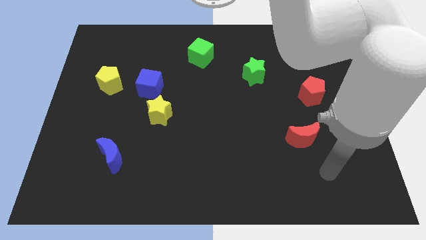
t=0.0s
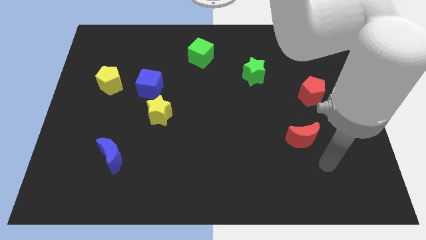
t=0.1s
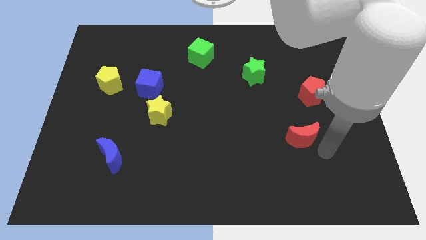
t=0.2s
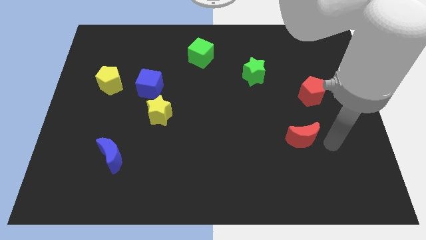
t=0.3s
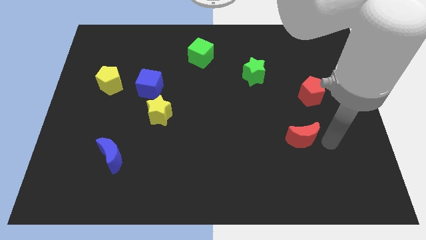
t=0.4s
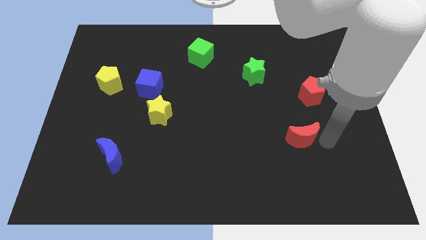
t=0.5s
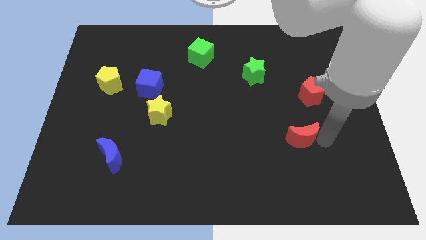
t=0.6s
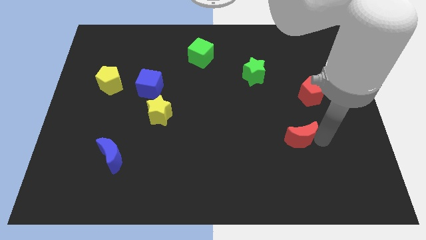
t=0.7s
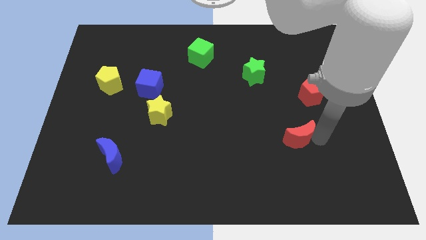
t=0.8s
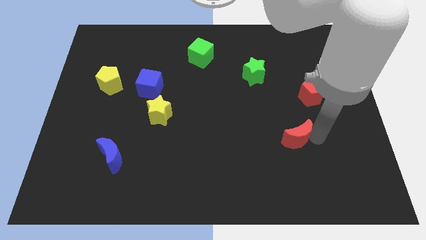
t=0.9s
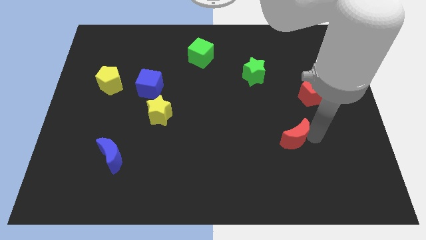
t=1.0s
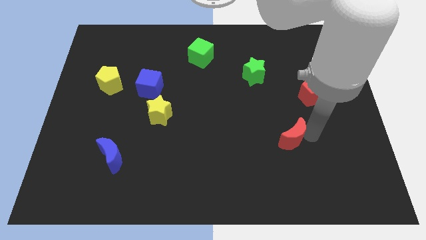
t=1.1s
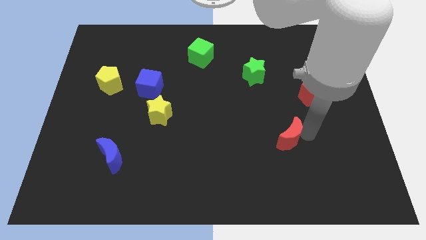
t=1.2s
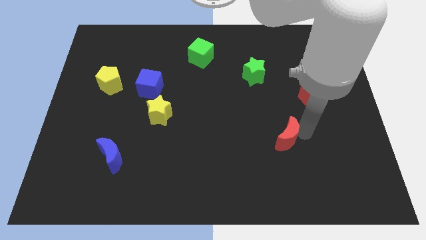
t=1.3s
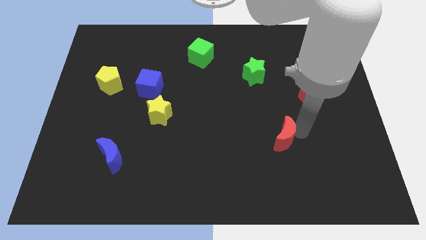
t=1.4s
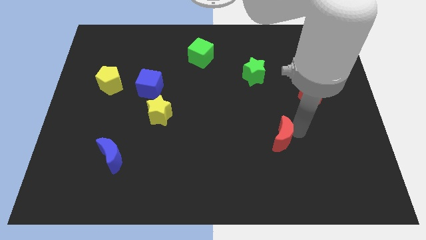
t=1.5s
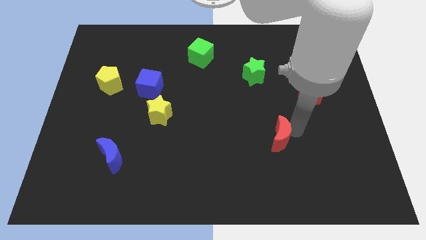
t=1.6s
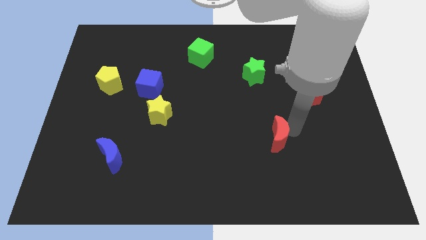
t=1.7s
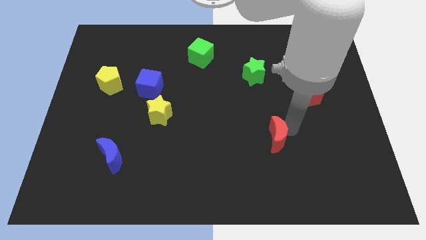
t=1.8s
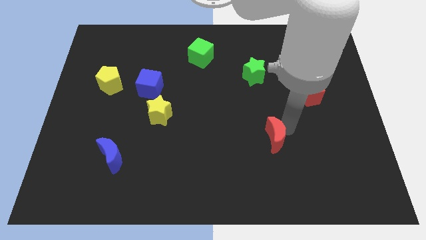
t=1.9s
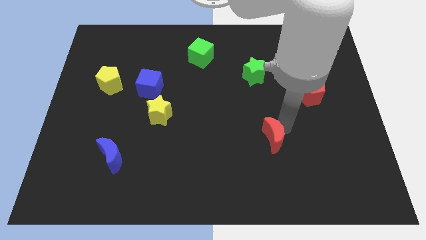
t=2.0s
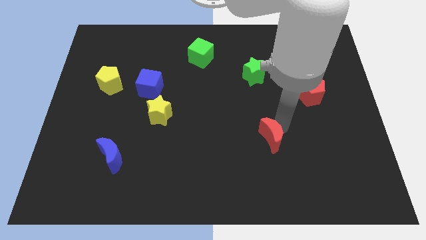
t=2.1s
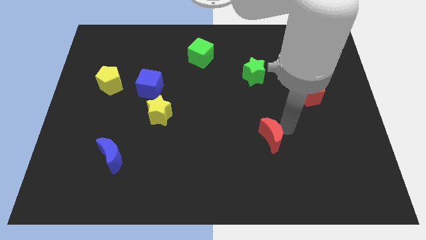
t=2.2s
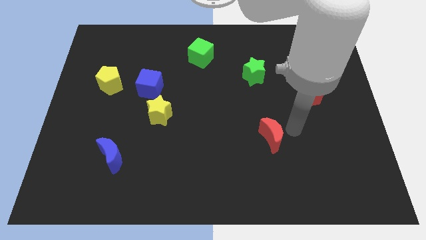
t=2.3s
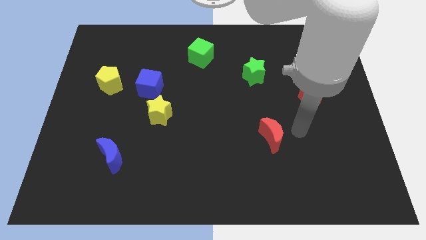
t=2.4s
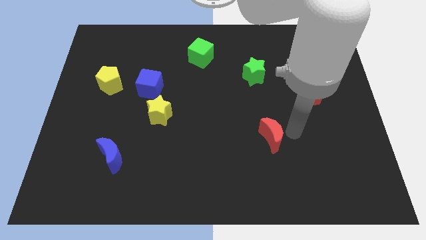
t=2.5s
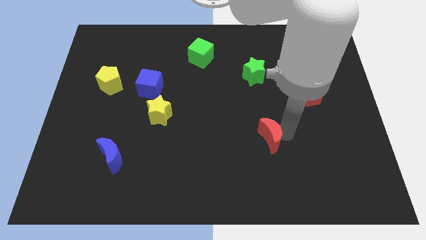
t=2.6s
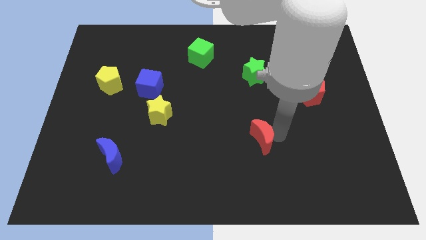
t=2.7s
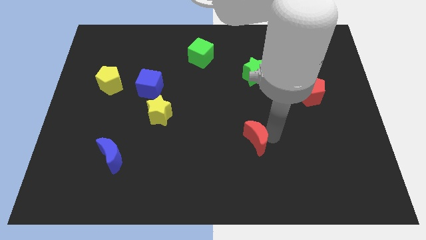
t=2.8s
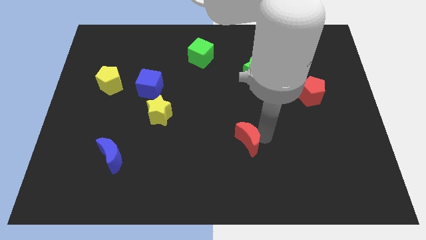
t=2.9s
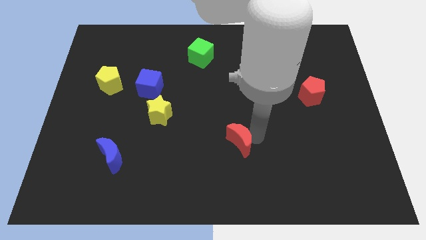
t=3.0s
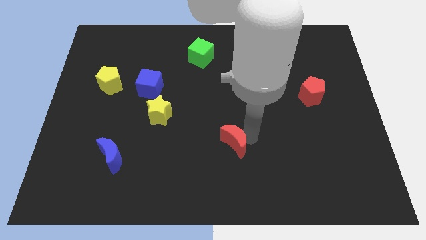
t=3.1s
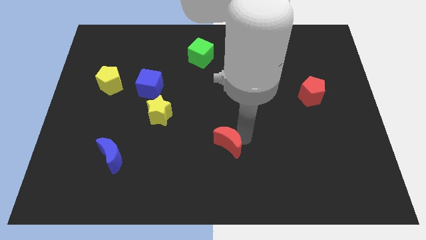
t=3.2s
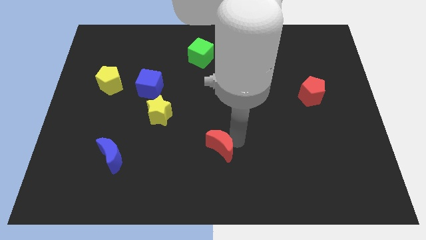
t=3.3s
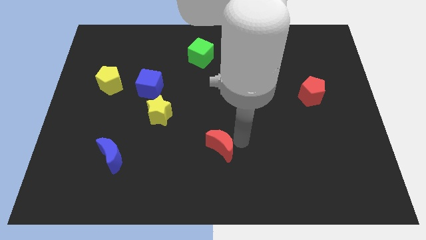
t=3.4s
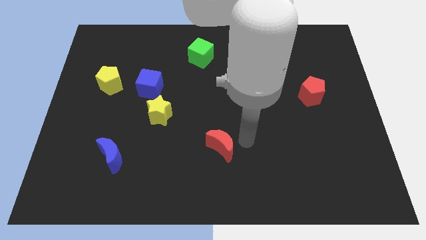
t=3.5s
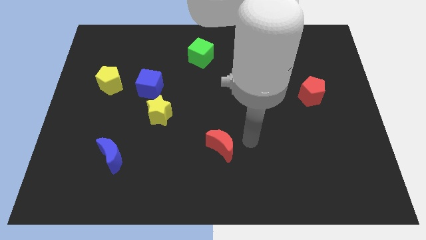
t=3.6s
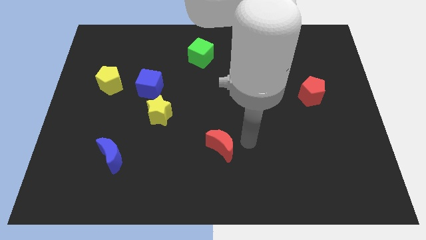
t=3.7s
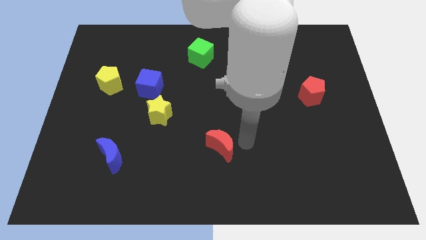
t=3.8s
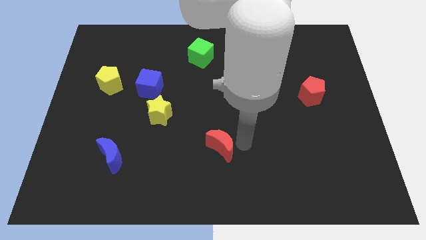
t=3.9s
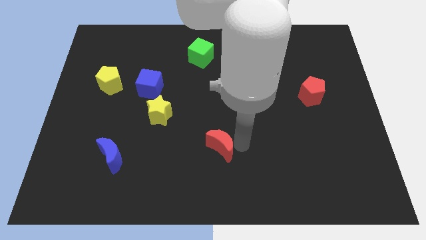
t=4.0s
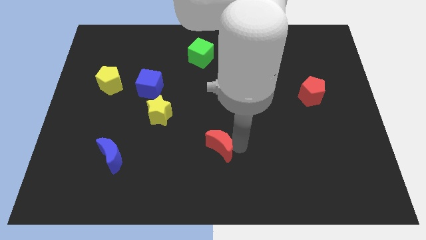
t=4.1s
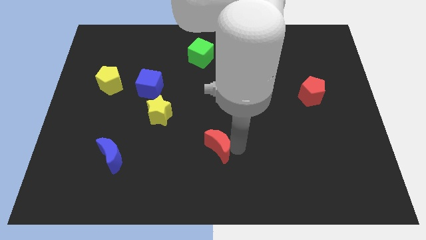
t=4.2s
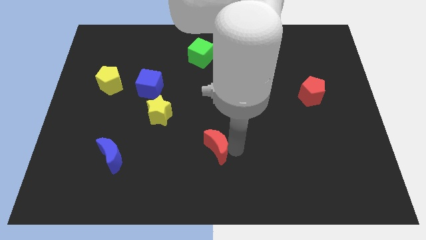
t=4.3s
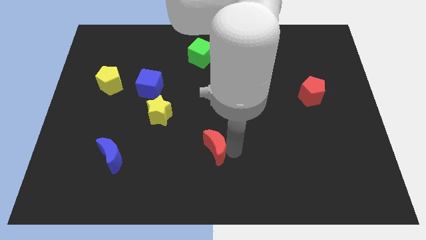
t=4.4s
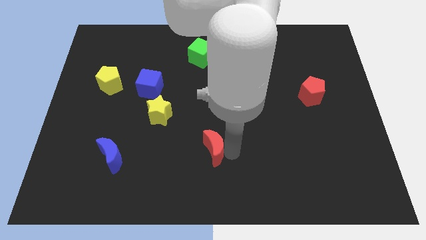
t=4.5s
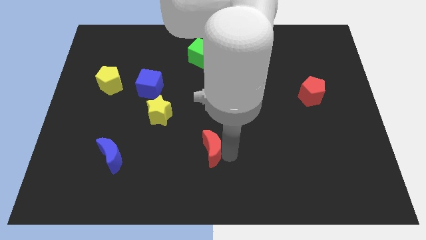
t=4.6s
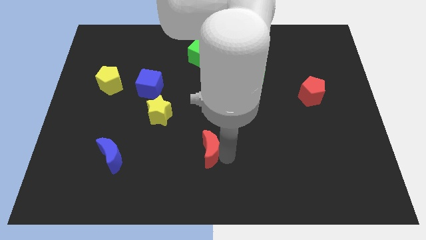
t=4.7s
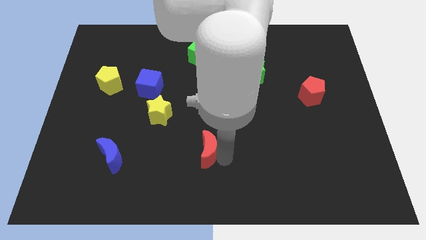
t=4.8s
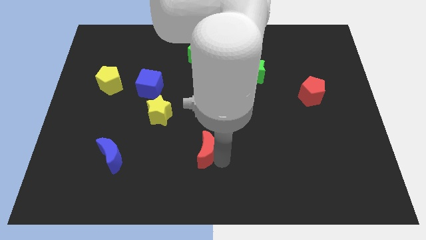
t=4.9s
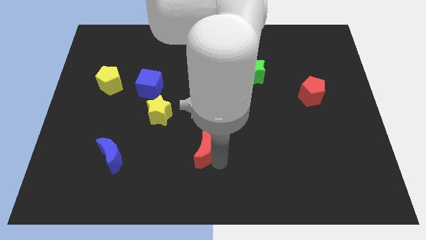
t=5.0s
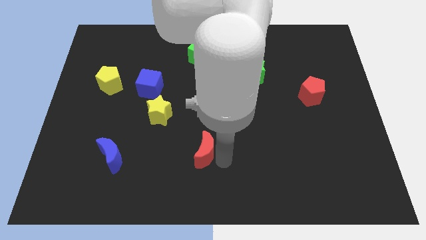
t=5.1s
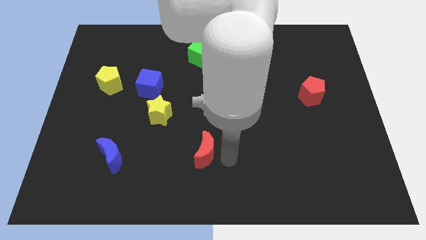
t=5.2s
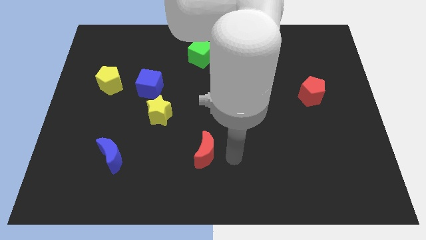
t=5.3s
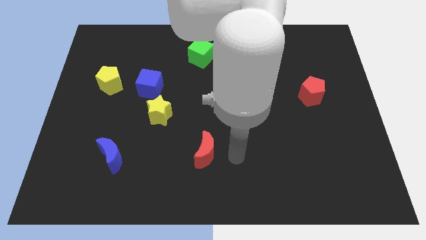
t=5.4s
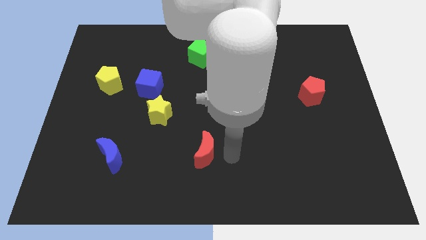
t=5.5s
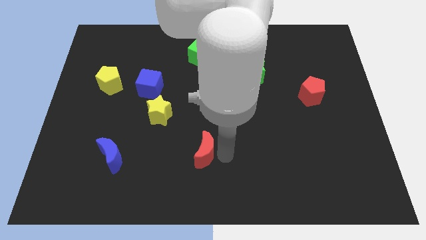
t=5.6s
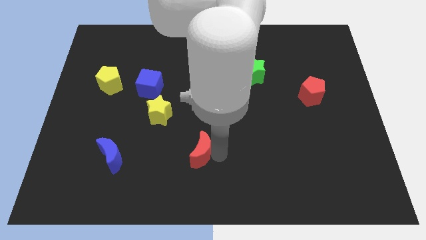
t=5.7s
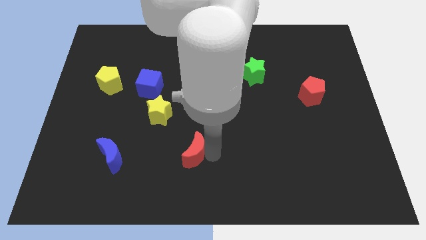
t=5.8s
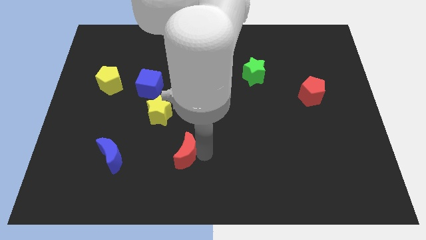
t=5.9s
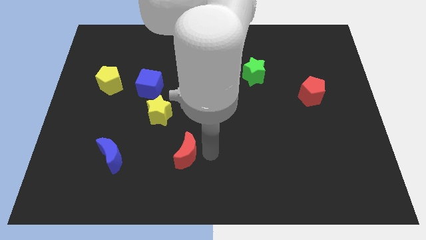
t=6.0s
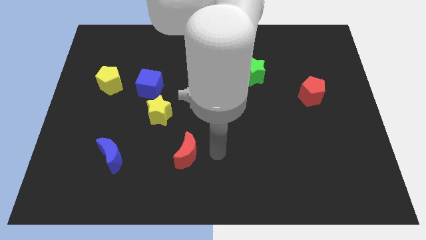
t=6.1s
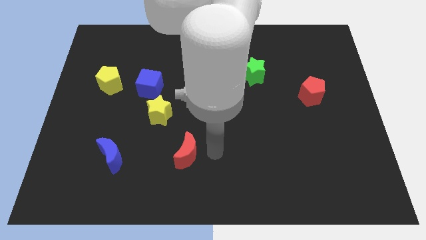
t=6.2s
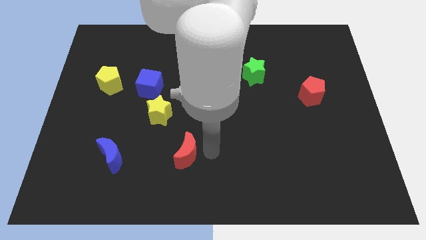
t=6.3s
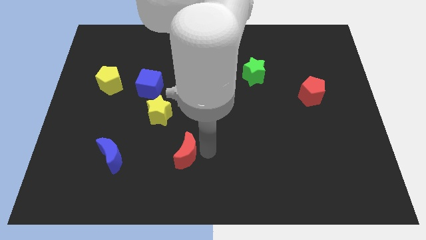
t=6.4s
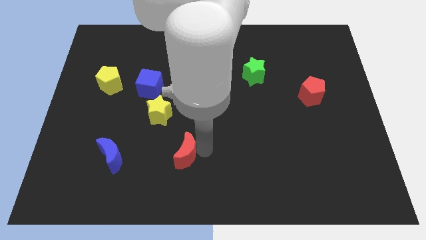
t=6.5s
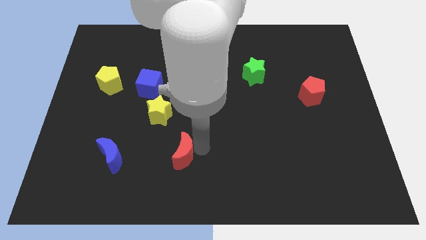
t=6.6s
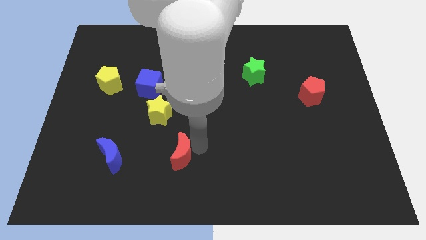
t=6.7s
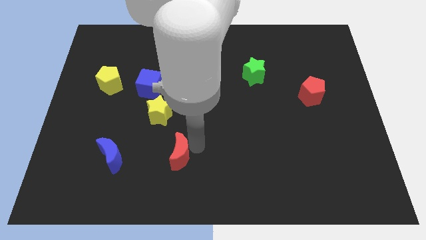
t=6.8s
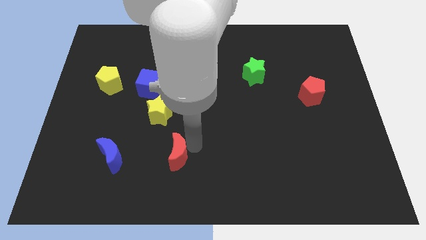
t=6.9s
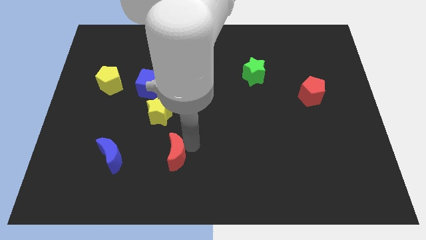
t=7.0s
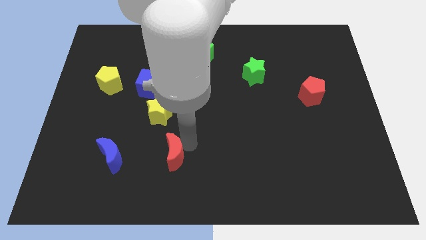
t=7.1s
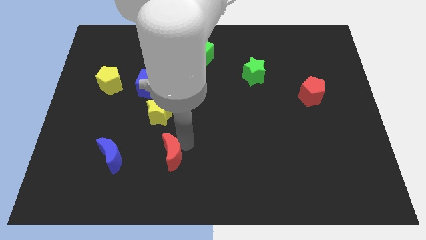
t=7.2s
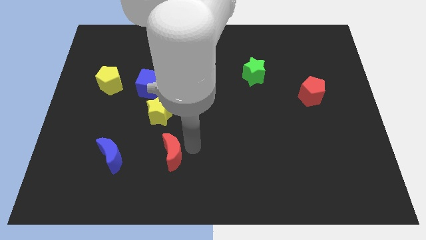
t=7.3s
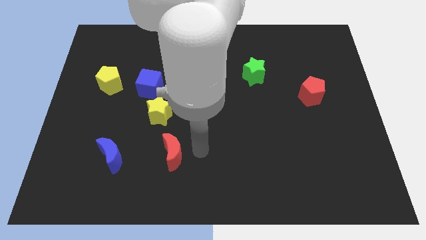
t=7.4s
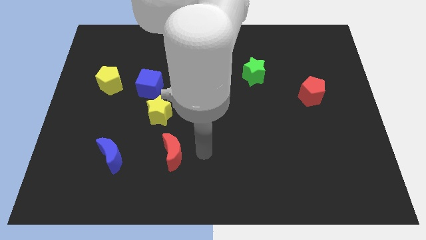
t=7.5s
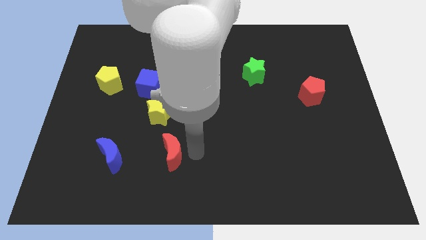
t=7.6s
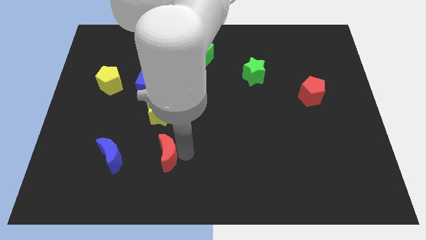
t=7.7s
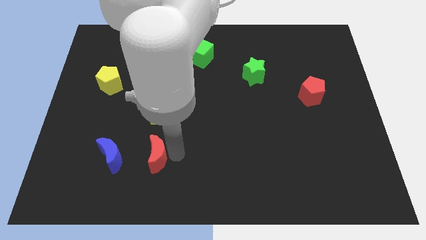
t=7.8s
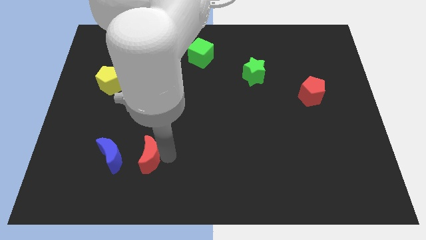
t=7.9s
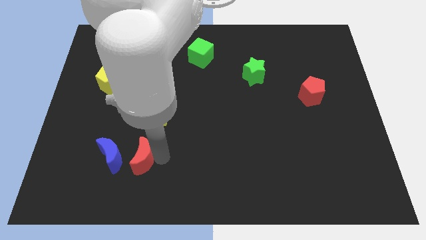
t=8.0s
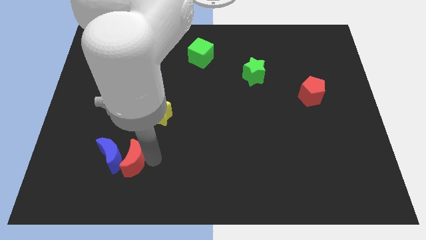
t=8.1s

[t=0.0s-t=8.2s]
move the red moon close to the blue moon

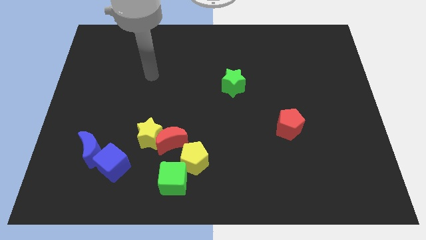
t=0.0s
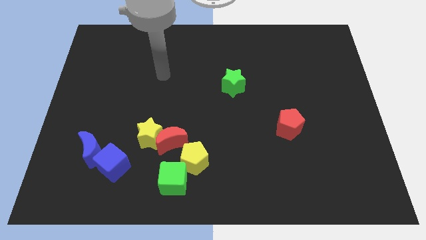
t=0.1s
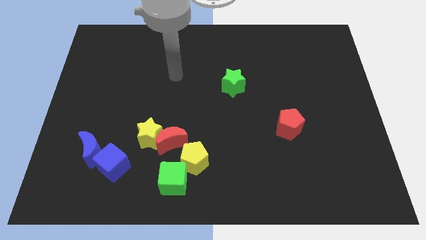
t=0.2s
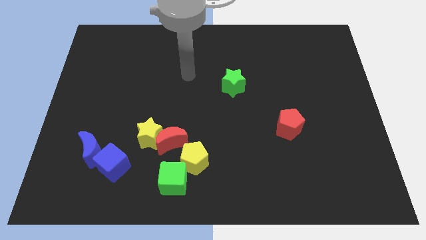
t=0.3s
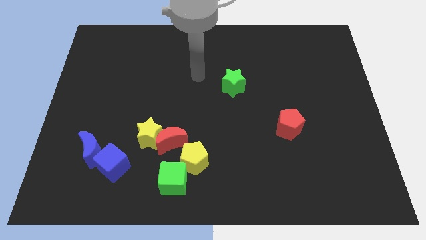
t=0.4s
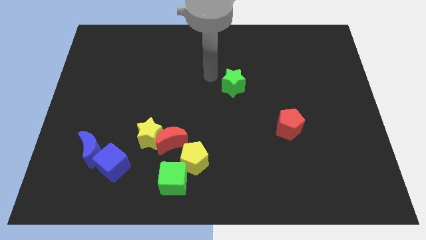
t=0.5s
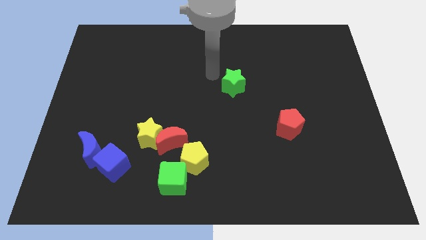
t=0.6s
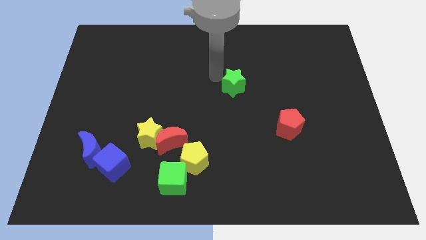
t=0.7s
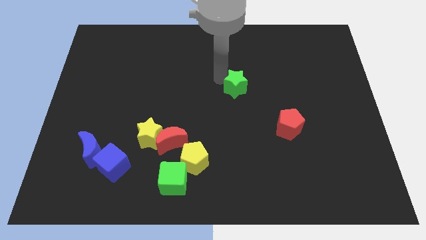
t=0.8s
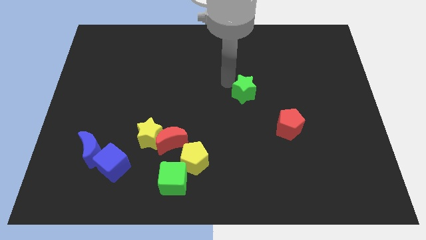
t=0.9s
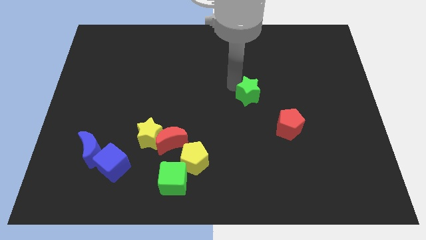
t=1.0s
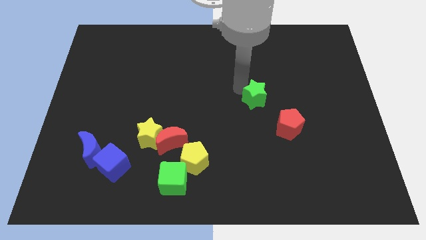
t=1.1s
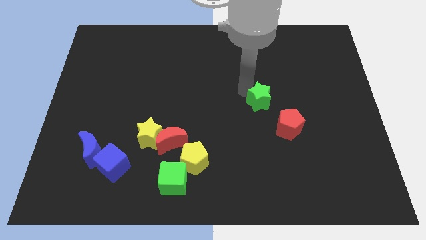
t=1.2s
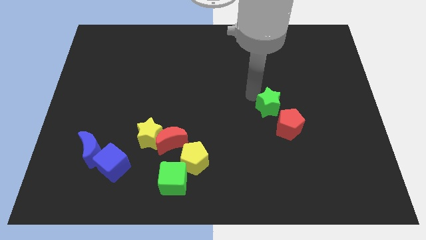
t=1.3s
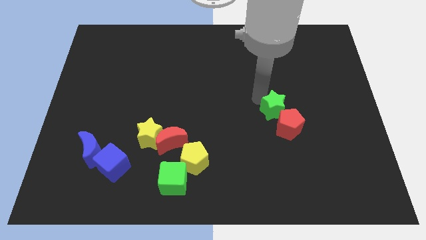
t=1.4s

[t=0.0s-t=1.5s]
move the green star close to the red pentagon
